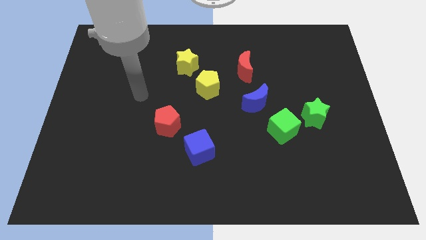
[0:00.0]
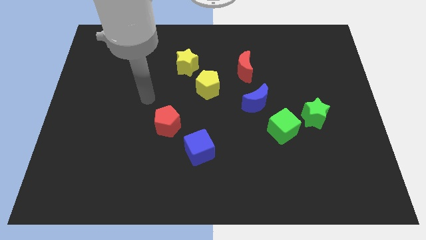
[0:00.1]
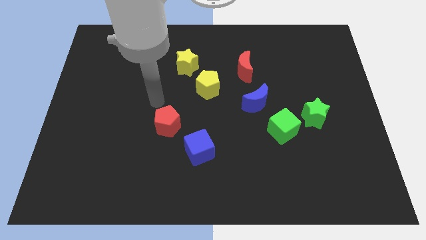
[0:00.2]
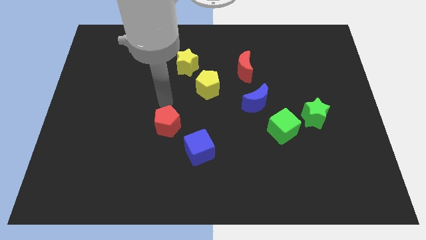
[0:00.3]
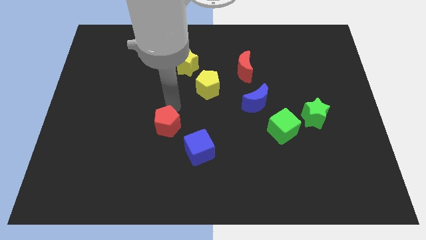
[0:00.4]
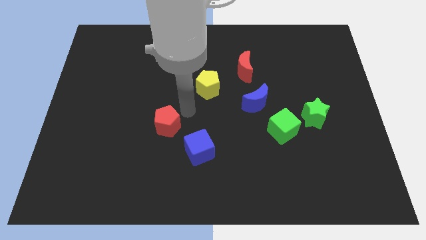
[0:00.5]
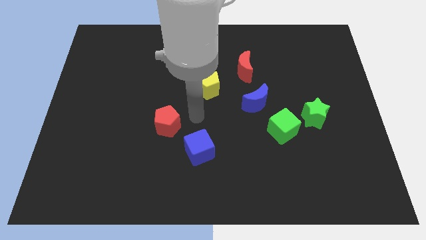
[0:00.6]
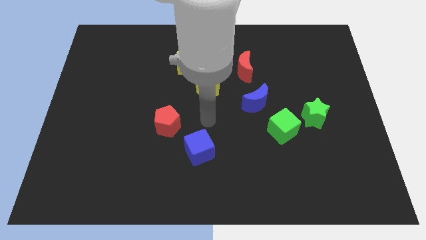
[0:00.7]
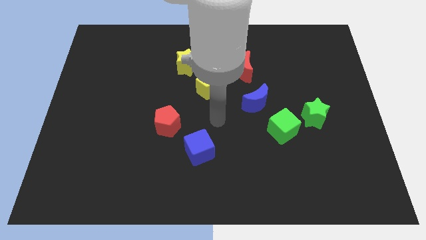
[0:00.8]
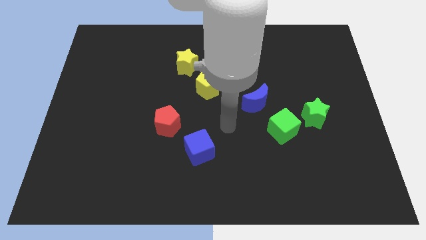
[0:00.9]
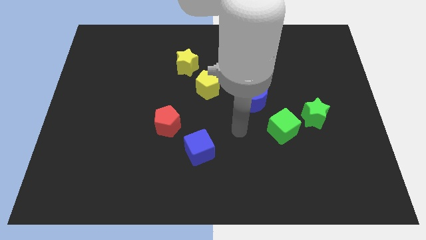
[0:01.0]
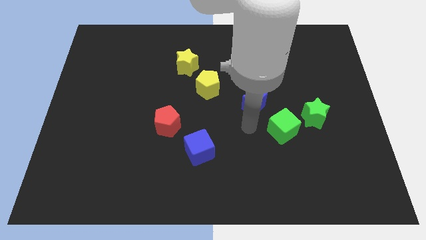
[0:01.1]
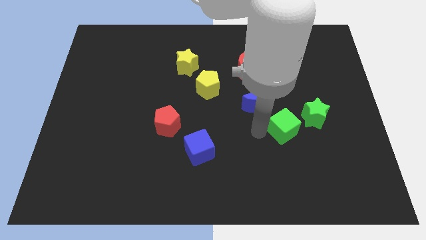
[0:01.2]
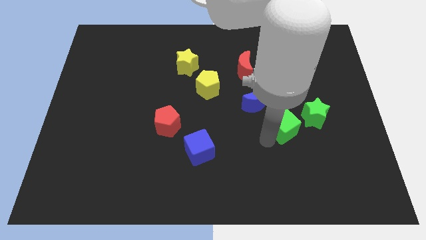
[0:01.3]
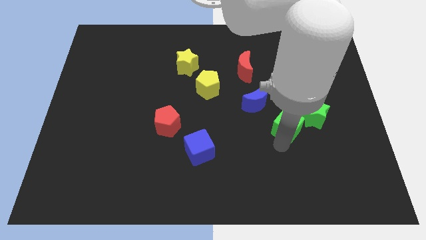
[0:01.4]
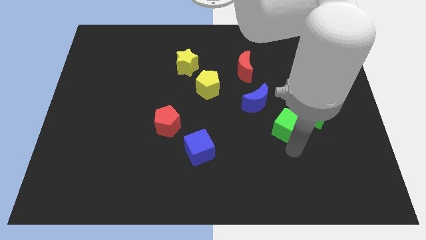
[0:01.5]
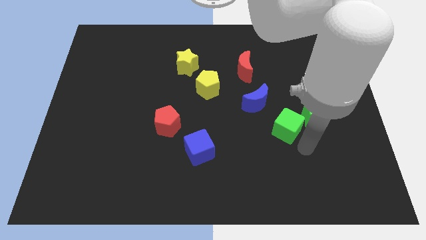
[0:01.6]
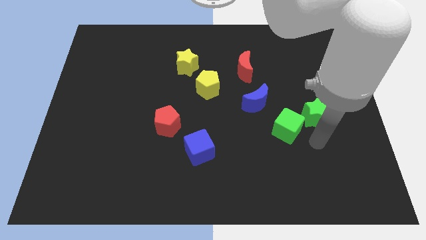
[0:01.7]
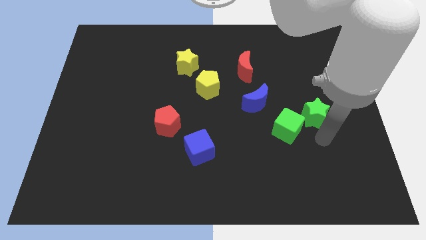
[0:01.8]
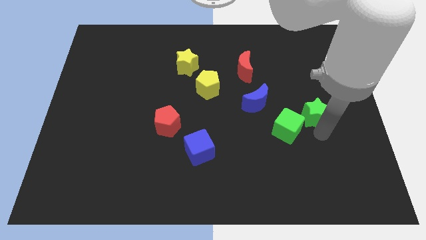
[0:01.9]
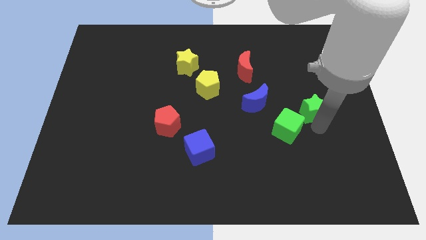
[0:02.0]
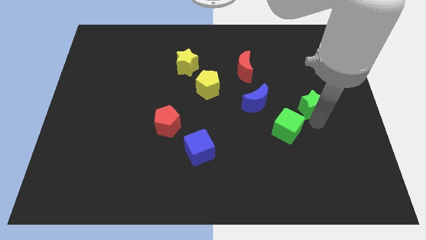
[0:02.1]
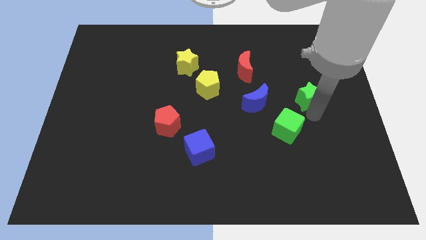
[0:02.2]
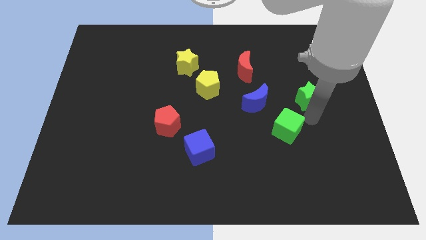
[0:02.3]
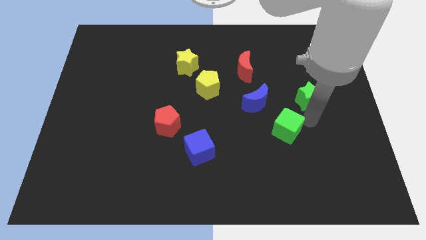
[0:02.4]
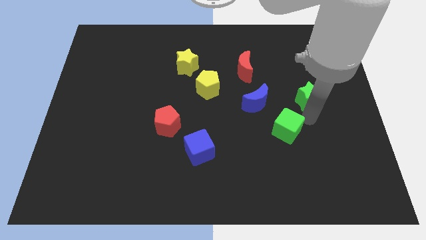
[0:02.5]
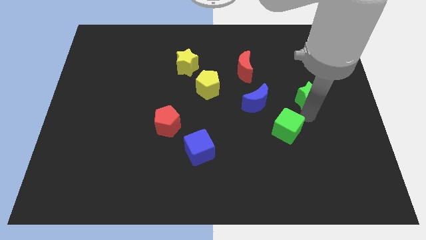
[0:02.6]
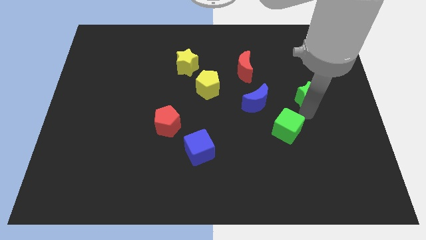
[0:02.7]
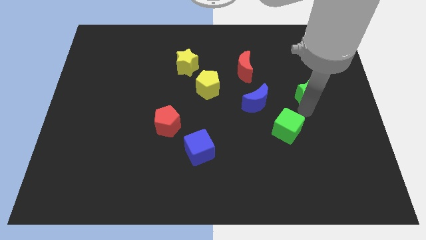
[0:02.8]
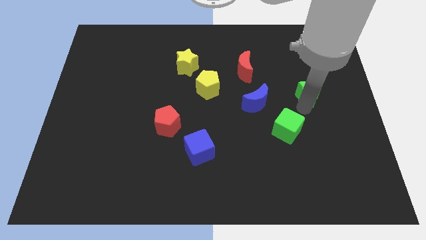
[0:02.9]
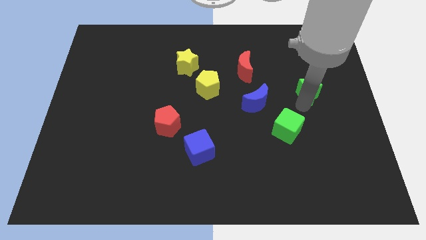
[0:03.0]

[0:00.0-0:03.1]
slightly move the green star upwards

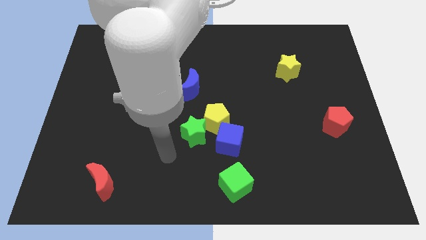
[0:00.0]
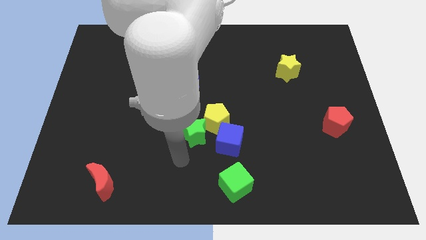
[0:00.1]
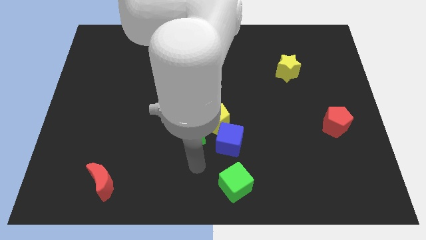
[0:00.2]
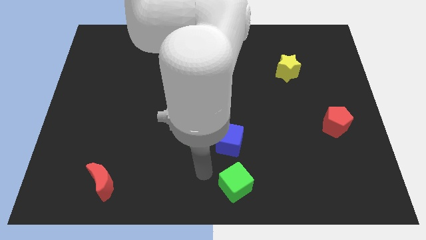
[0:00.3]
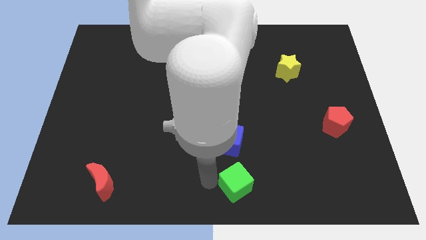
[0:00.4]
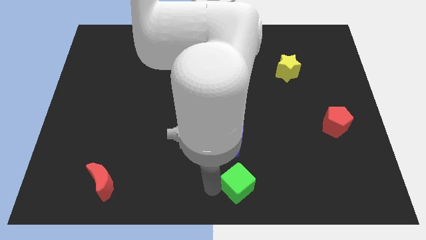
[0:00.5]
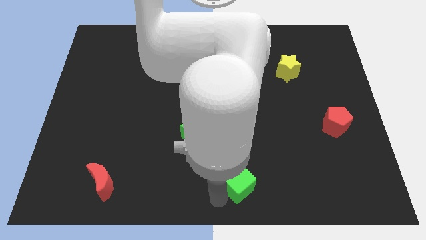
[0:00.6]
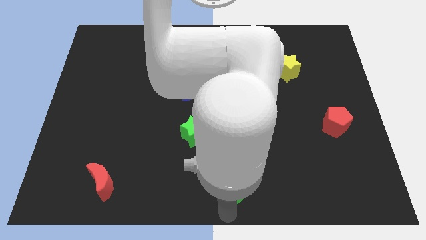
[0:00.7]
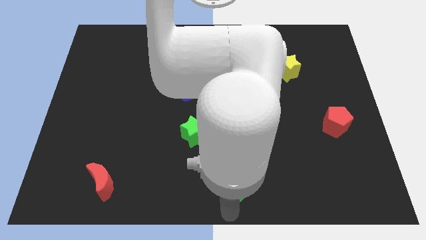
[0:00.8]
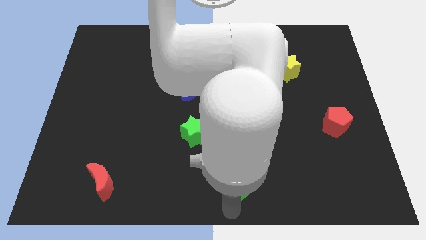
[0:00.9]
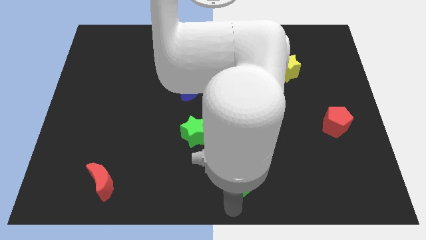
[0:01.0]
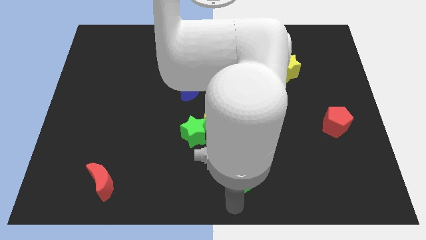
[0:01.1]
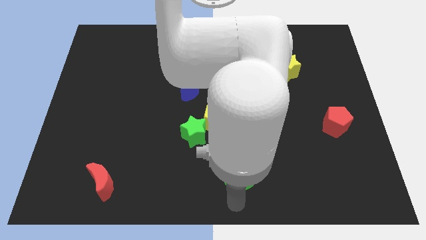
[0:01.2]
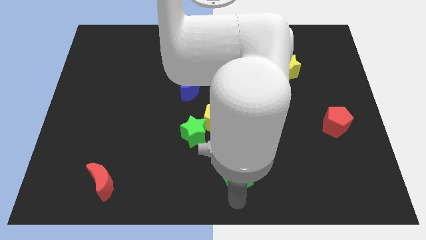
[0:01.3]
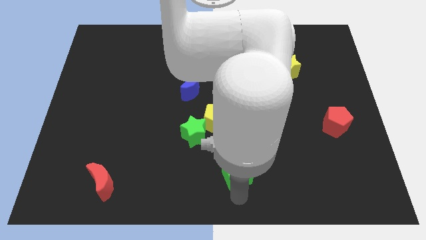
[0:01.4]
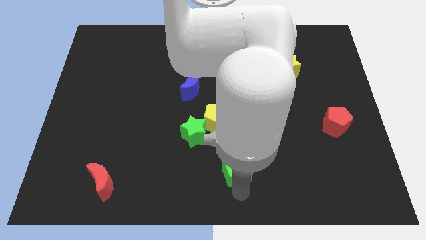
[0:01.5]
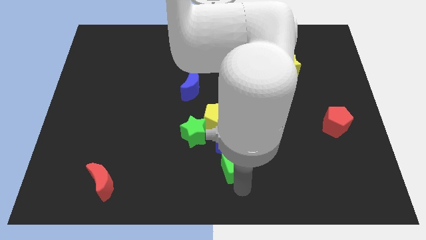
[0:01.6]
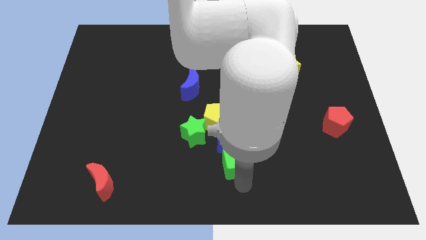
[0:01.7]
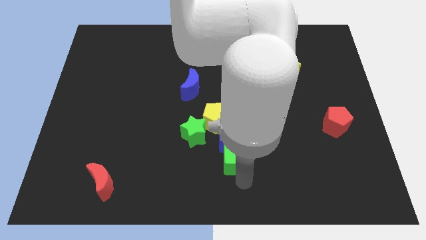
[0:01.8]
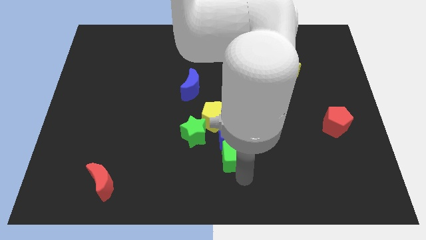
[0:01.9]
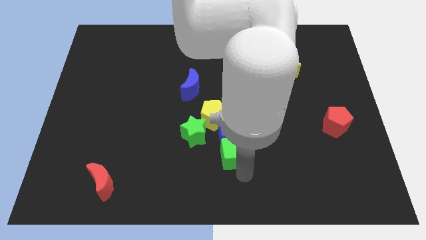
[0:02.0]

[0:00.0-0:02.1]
slightly move the green cube upwards

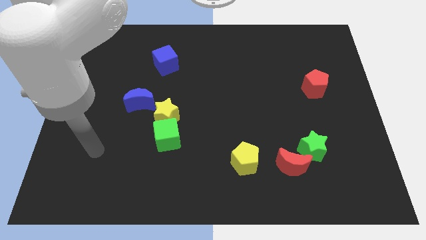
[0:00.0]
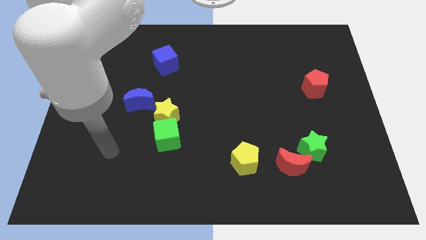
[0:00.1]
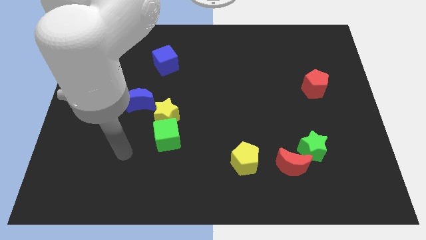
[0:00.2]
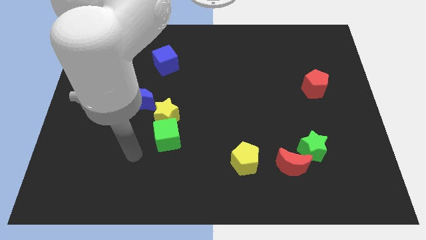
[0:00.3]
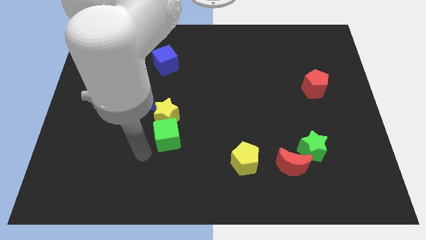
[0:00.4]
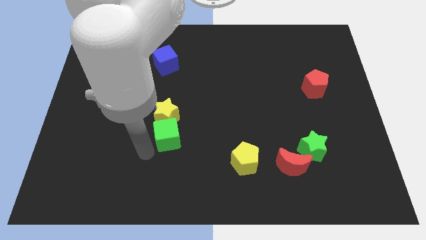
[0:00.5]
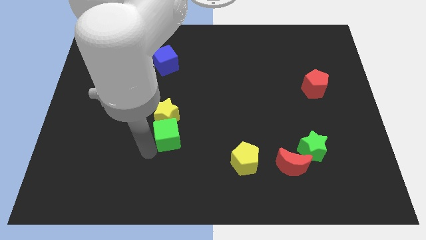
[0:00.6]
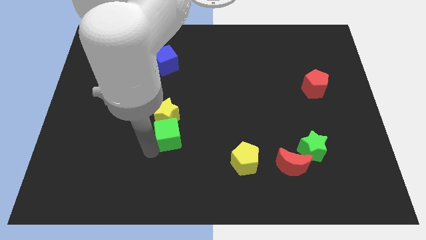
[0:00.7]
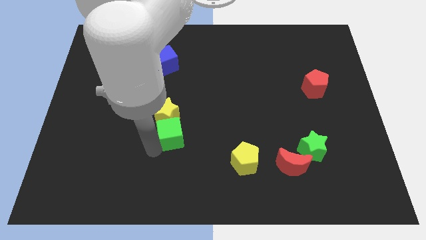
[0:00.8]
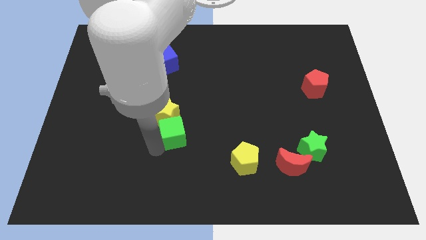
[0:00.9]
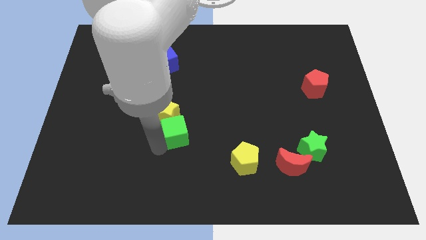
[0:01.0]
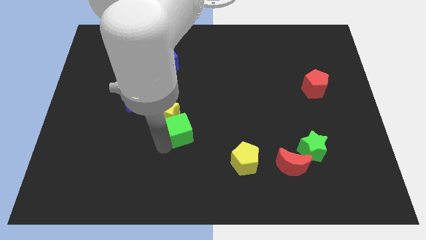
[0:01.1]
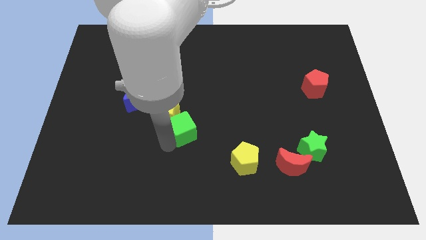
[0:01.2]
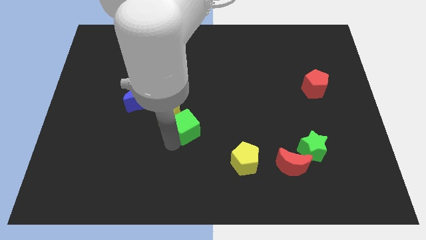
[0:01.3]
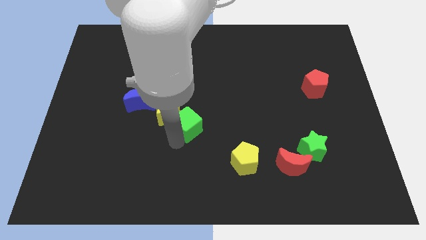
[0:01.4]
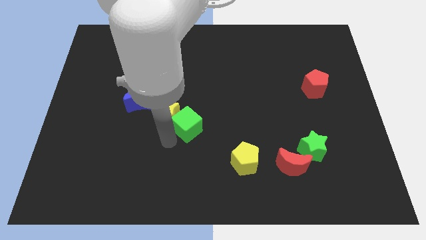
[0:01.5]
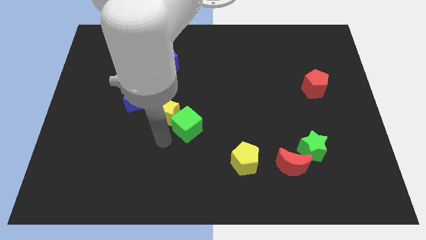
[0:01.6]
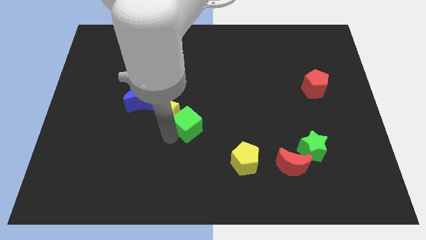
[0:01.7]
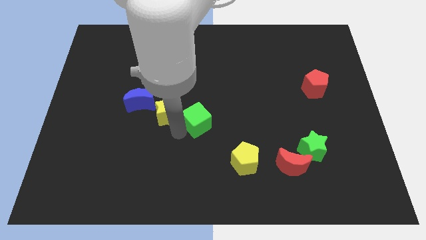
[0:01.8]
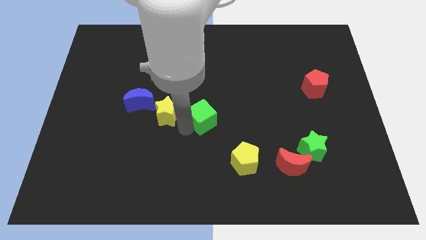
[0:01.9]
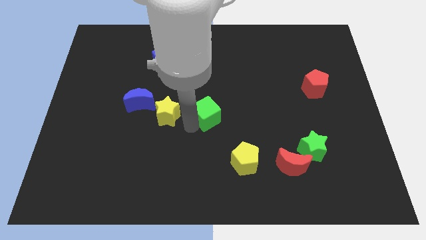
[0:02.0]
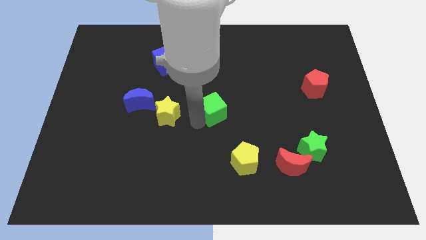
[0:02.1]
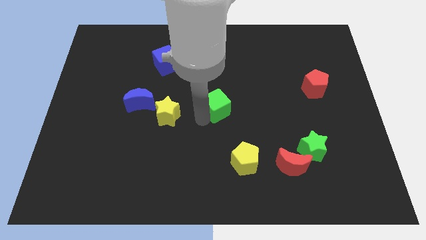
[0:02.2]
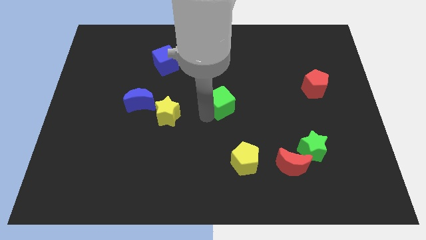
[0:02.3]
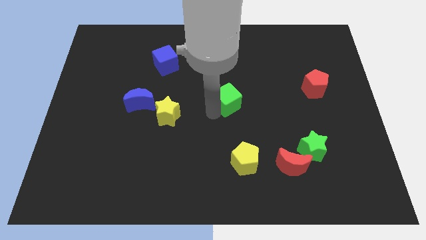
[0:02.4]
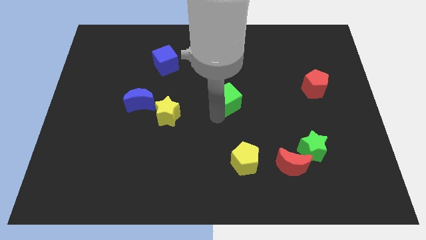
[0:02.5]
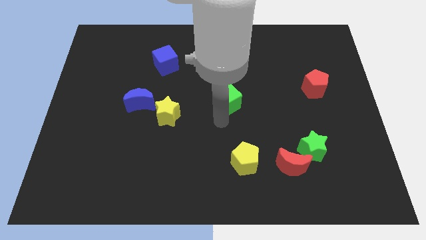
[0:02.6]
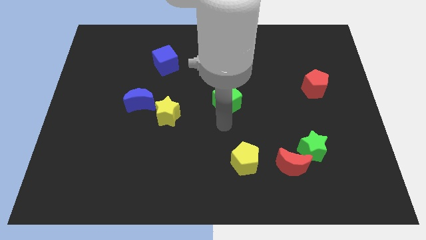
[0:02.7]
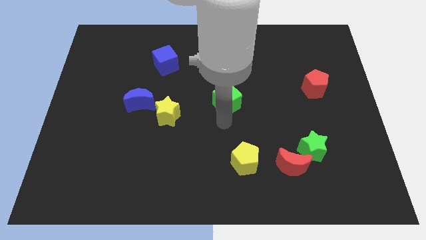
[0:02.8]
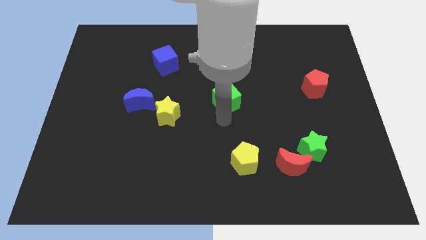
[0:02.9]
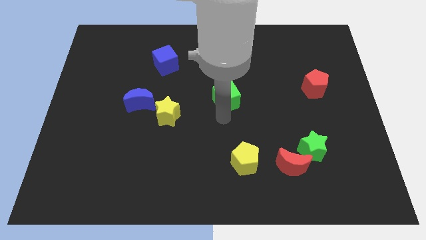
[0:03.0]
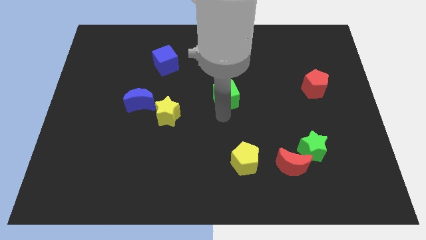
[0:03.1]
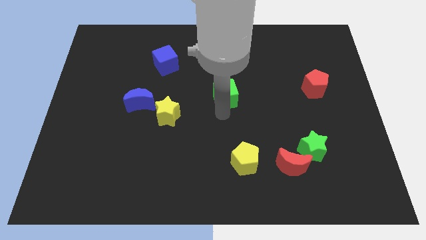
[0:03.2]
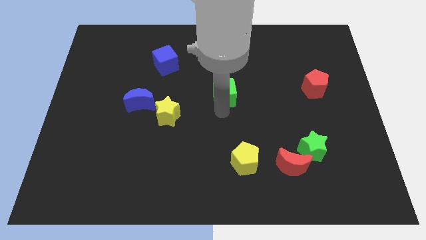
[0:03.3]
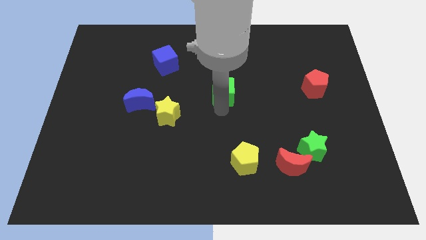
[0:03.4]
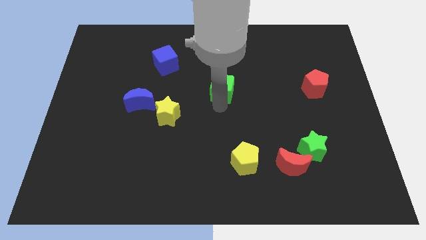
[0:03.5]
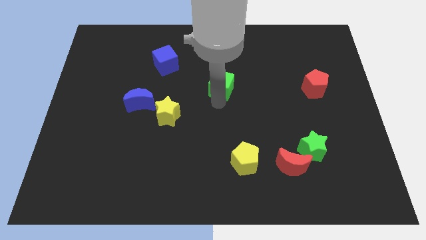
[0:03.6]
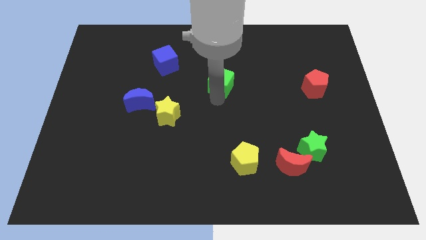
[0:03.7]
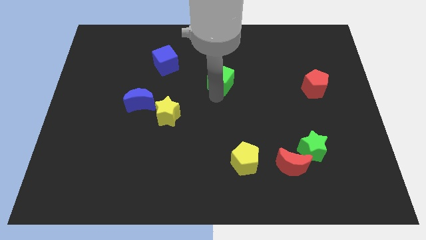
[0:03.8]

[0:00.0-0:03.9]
move the green cube diagonally up and right

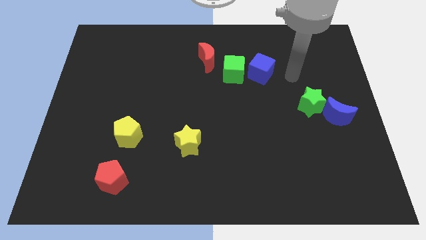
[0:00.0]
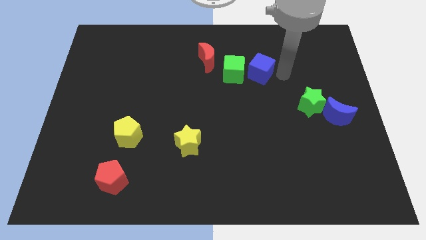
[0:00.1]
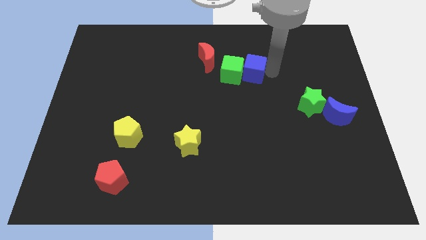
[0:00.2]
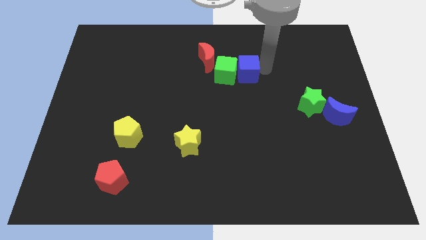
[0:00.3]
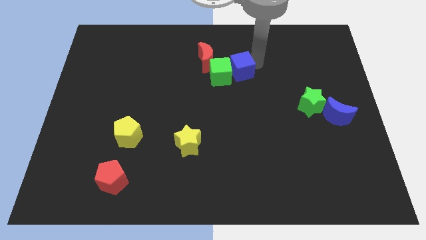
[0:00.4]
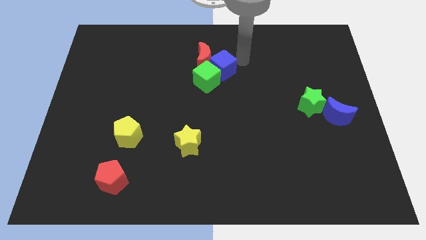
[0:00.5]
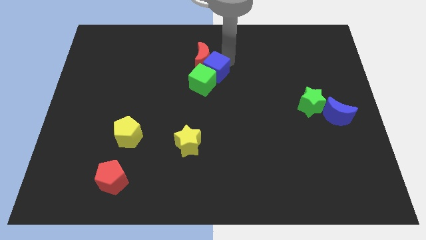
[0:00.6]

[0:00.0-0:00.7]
move the green cube slightly down and to the left
